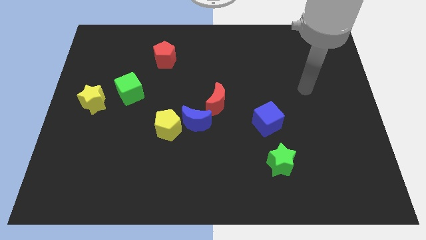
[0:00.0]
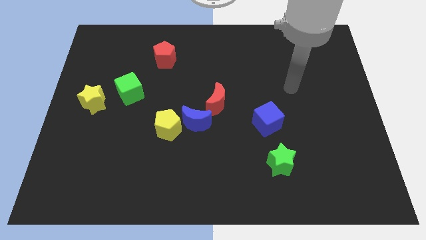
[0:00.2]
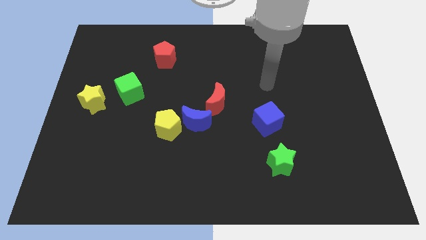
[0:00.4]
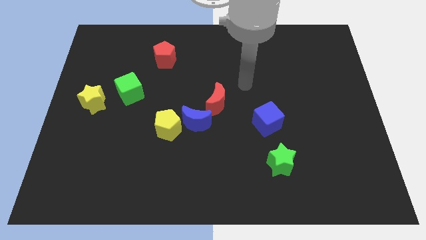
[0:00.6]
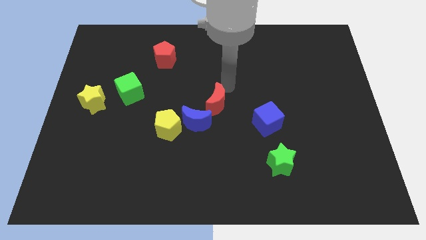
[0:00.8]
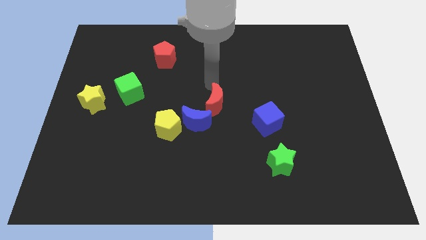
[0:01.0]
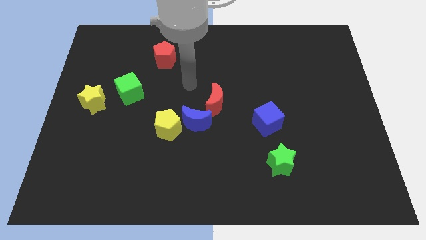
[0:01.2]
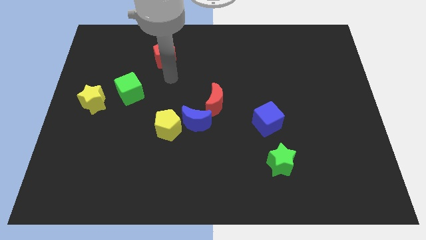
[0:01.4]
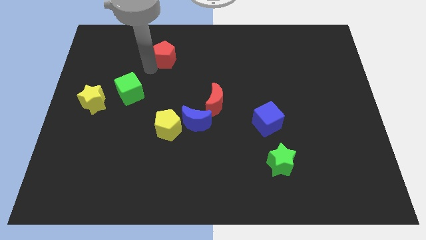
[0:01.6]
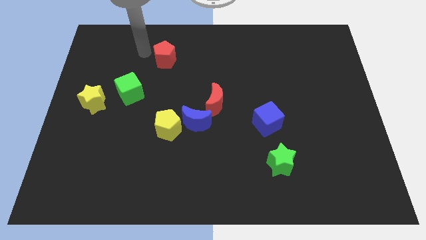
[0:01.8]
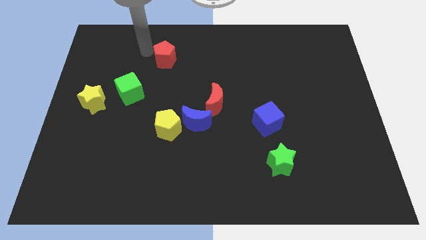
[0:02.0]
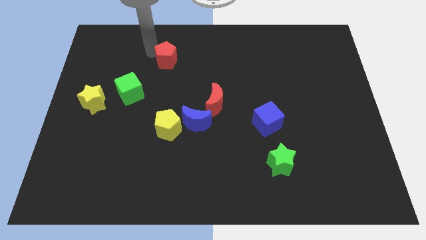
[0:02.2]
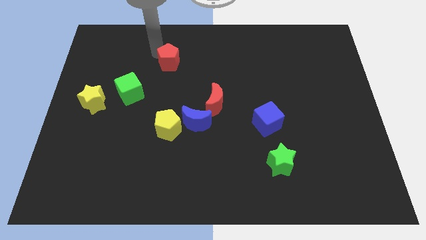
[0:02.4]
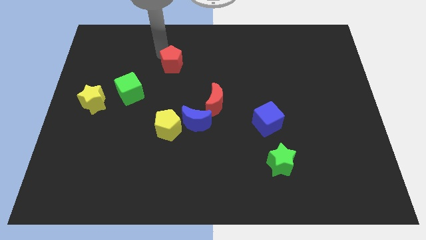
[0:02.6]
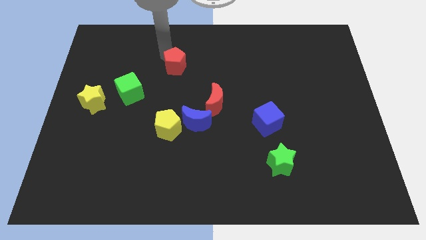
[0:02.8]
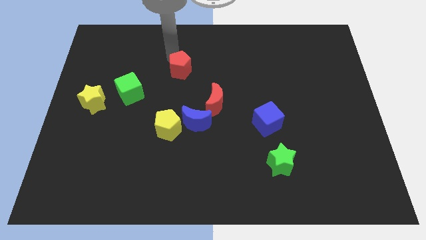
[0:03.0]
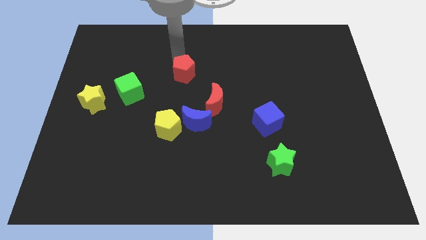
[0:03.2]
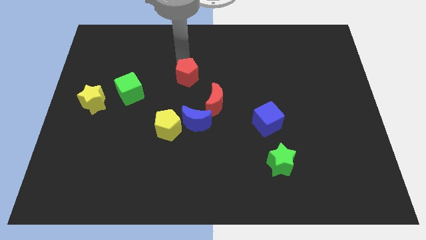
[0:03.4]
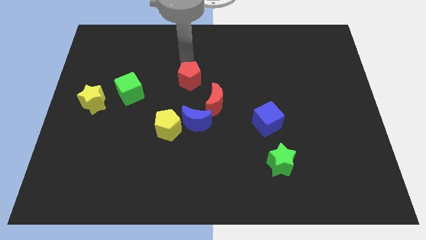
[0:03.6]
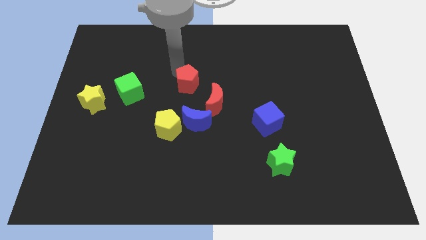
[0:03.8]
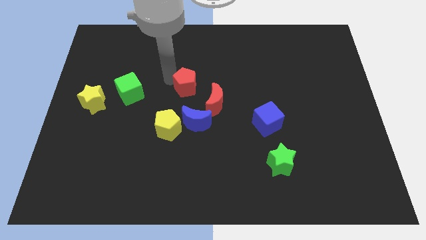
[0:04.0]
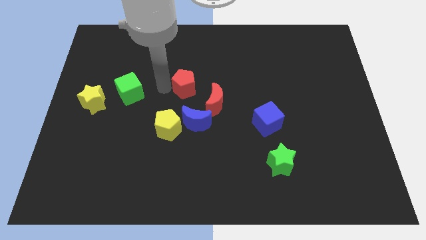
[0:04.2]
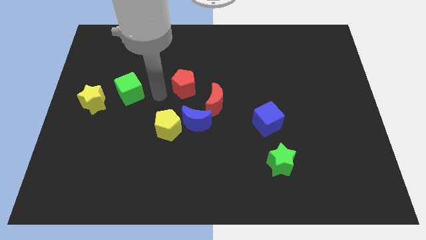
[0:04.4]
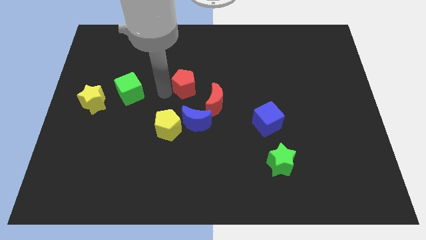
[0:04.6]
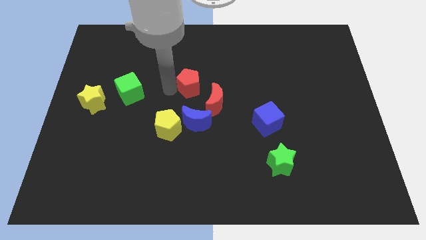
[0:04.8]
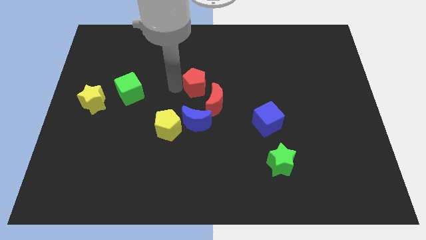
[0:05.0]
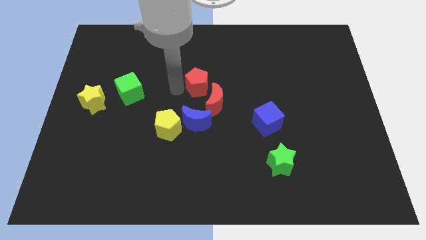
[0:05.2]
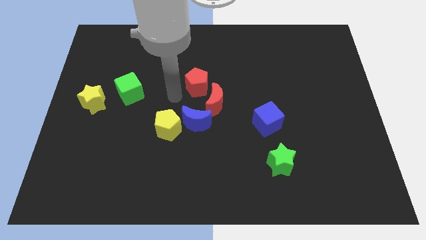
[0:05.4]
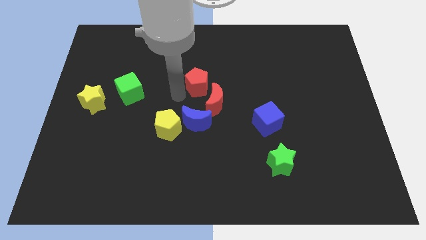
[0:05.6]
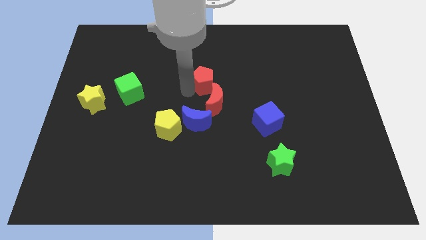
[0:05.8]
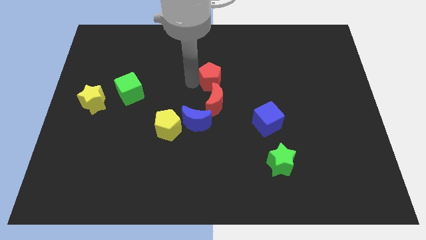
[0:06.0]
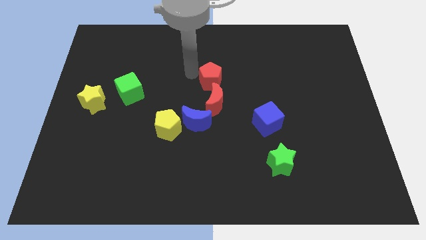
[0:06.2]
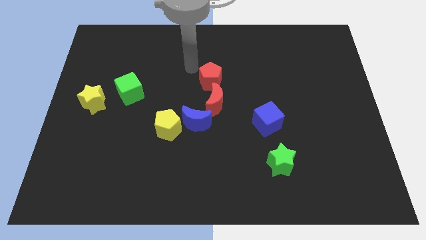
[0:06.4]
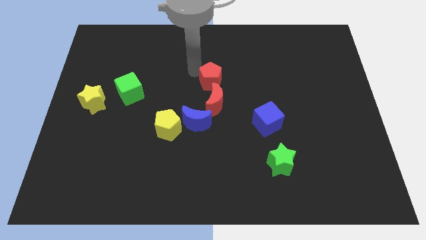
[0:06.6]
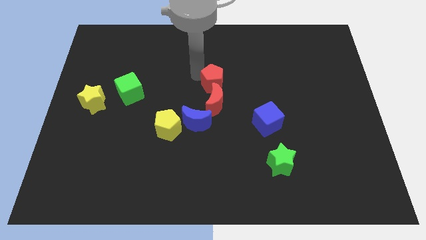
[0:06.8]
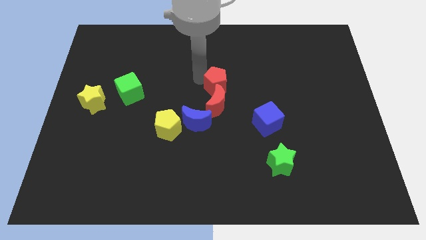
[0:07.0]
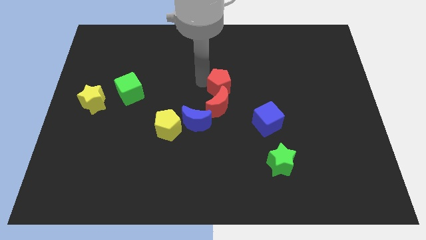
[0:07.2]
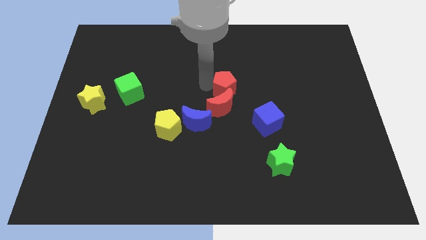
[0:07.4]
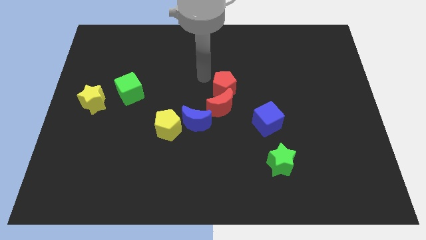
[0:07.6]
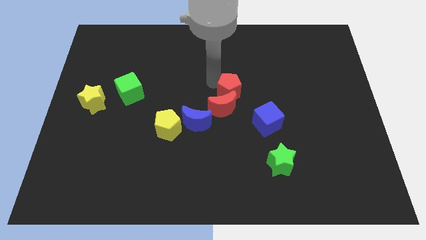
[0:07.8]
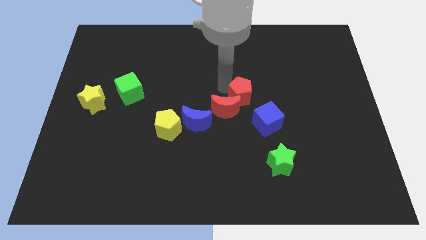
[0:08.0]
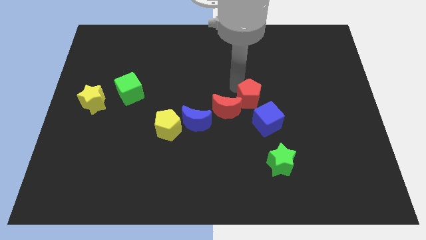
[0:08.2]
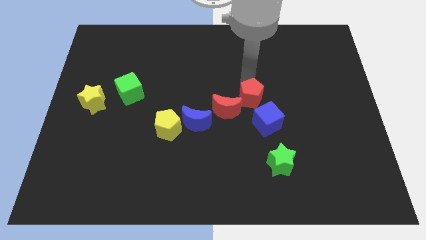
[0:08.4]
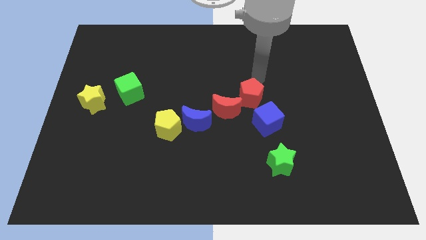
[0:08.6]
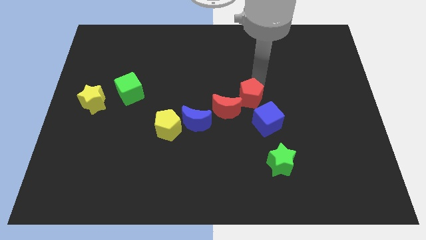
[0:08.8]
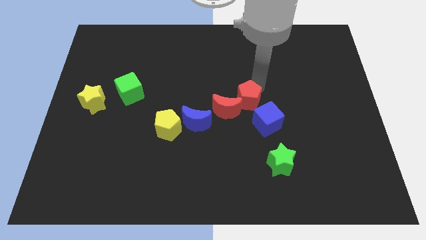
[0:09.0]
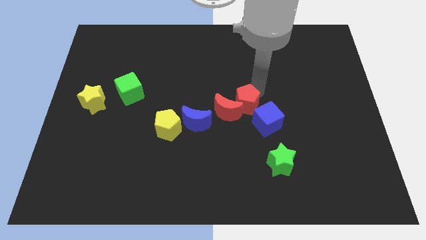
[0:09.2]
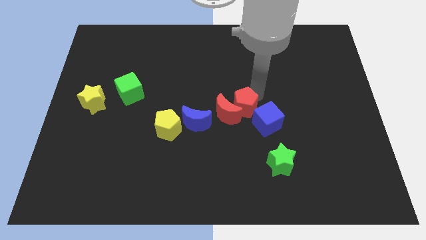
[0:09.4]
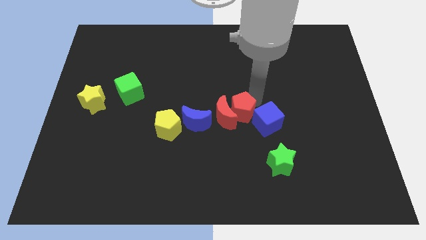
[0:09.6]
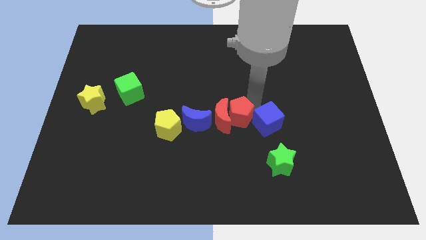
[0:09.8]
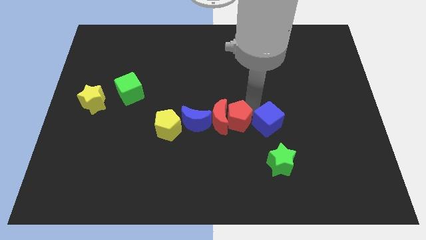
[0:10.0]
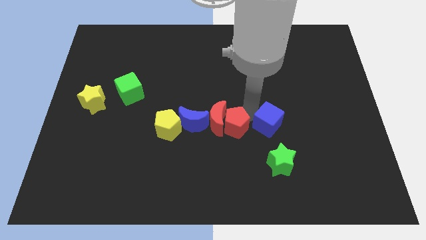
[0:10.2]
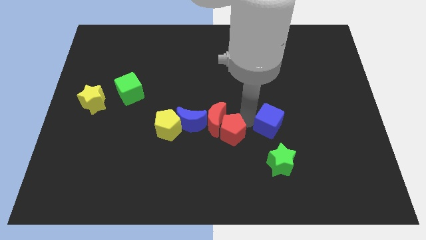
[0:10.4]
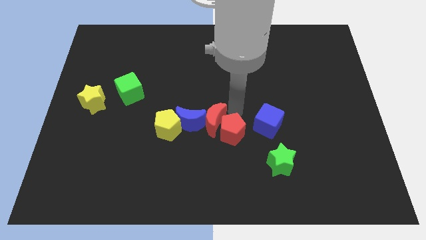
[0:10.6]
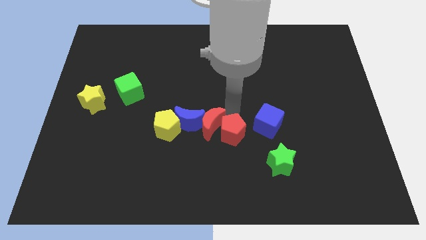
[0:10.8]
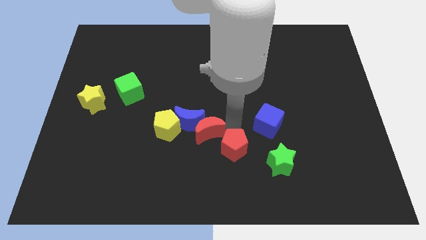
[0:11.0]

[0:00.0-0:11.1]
slide the red pentagon left of the green star

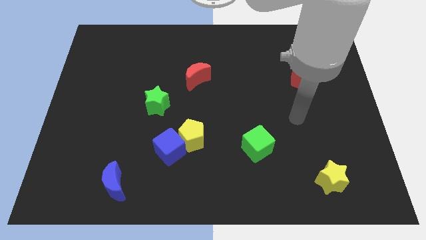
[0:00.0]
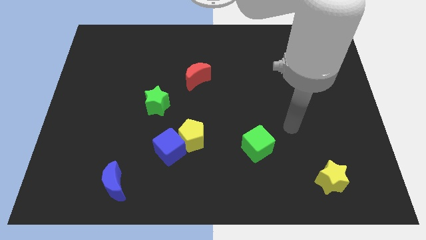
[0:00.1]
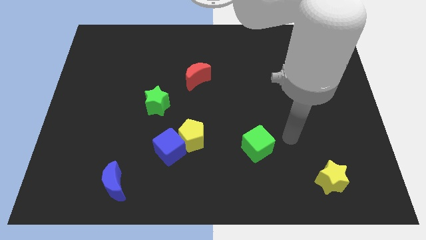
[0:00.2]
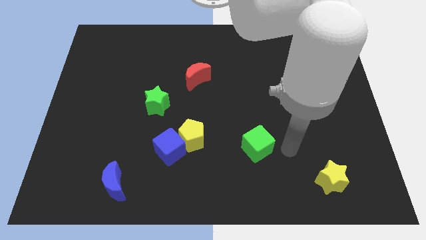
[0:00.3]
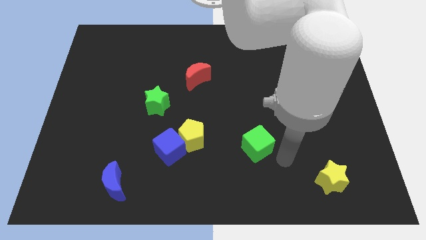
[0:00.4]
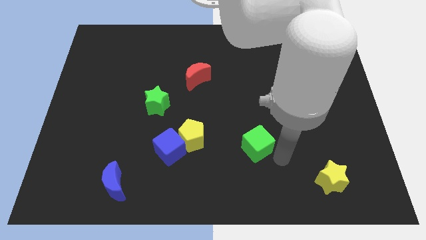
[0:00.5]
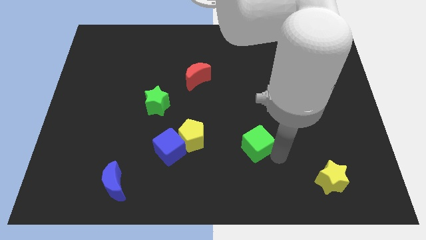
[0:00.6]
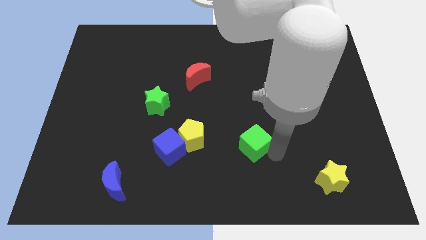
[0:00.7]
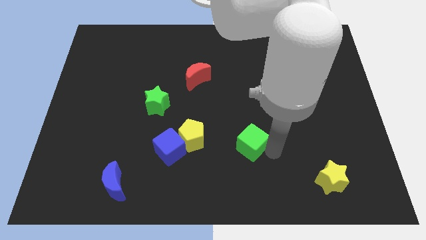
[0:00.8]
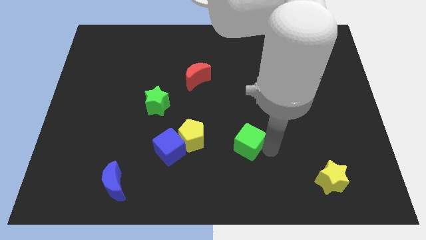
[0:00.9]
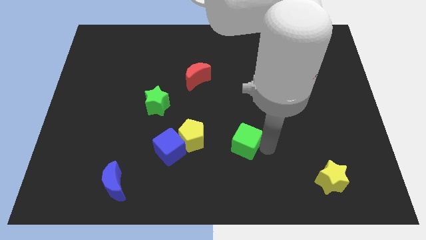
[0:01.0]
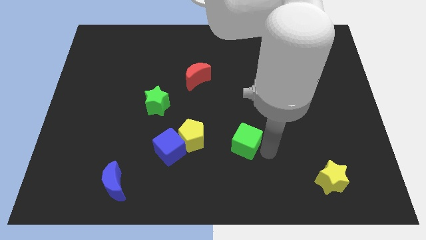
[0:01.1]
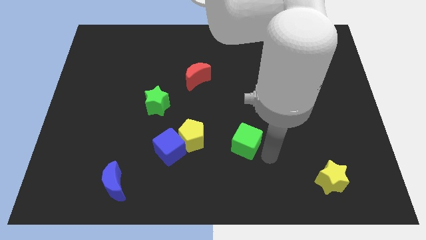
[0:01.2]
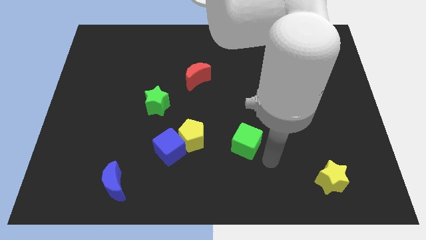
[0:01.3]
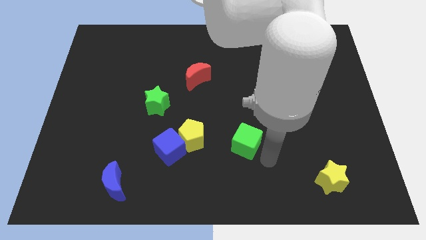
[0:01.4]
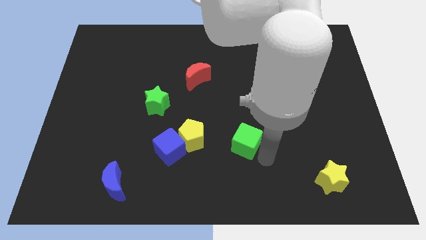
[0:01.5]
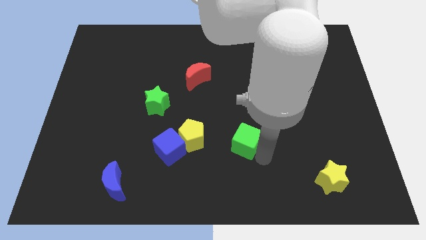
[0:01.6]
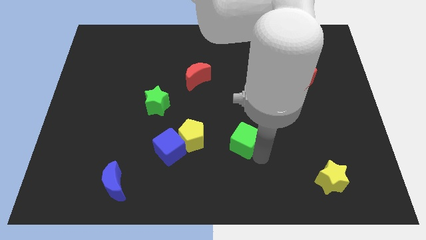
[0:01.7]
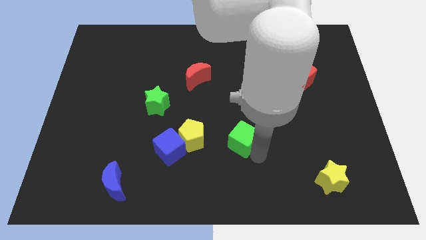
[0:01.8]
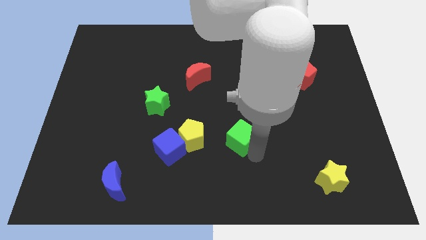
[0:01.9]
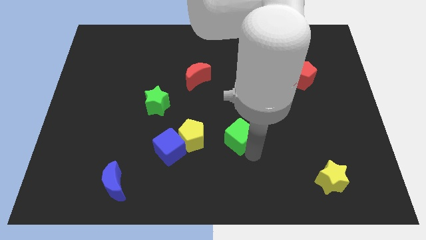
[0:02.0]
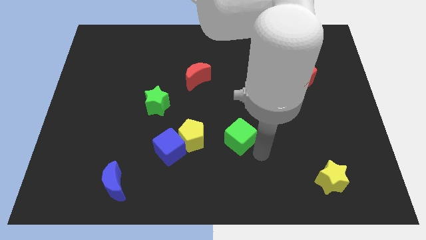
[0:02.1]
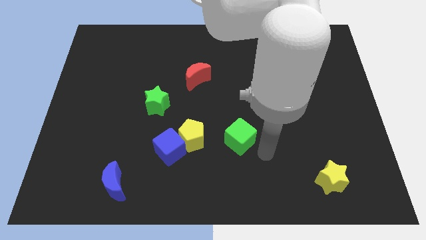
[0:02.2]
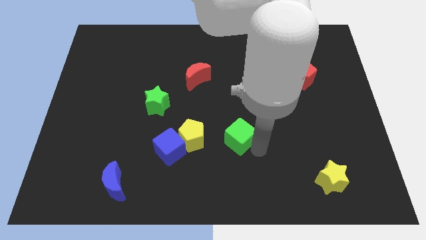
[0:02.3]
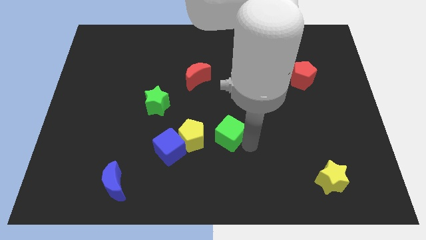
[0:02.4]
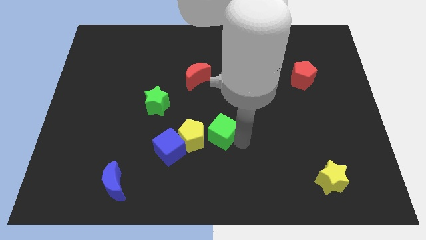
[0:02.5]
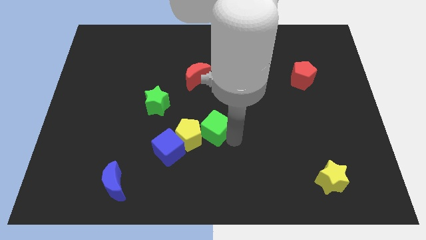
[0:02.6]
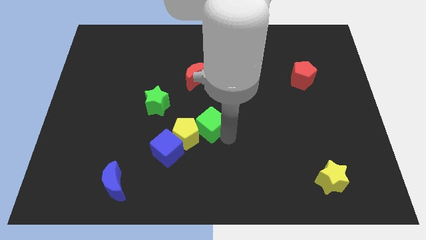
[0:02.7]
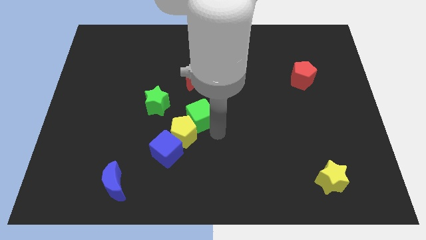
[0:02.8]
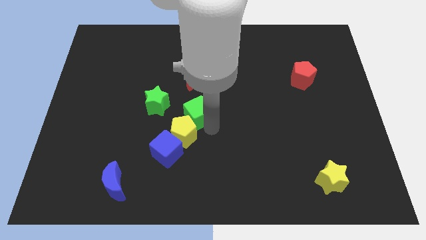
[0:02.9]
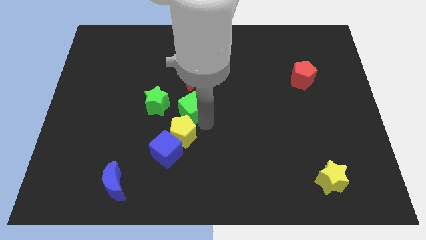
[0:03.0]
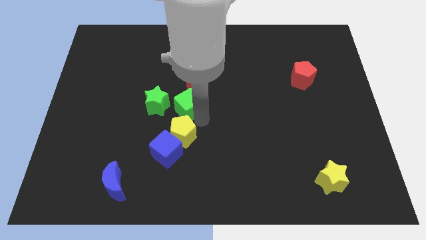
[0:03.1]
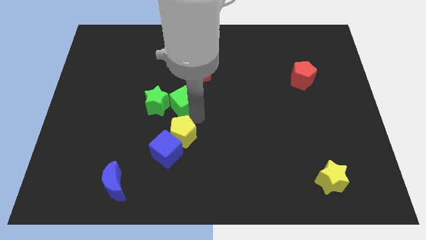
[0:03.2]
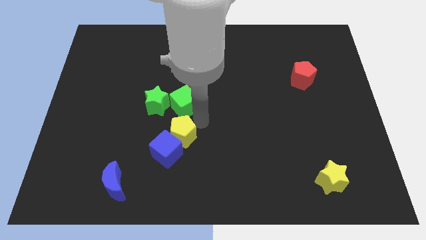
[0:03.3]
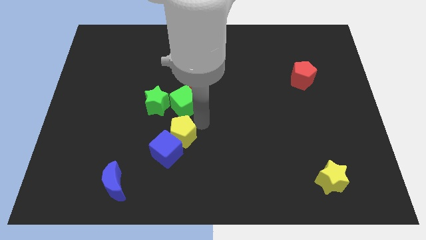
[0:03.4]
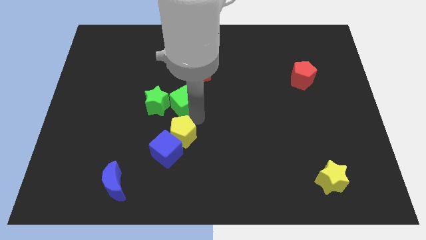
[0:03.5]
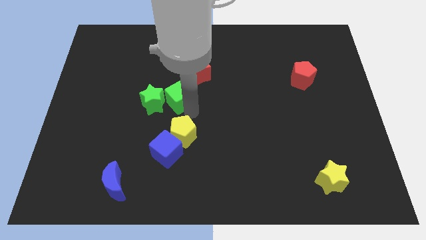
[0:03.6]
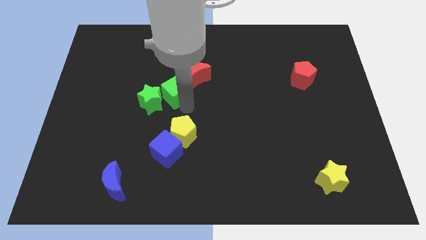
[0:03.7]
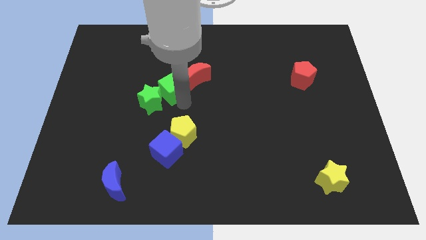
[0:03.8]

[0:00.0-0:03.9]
put the green cube left of the red moon
